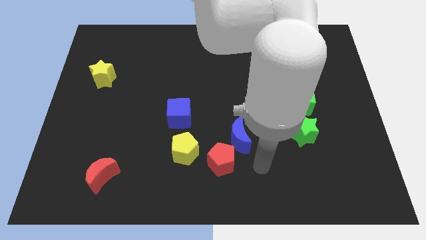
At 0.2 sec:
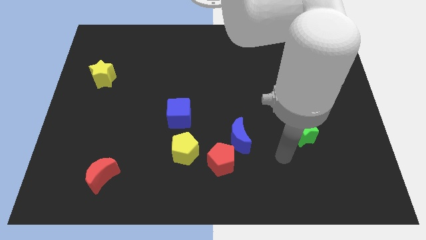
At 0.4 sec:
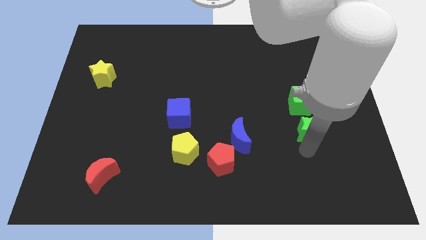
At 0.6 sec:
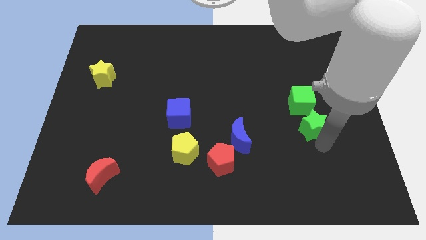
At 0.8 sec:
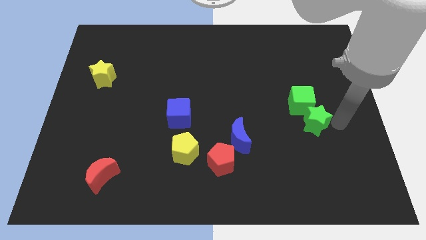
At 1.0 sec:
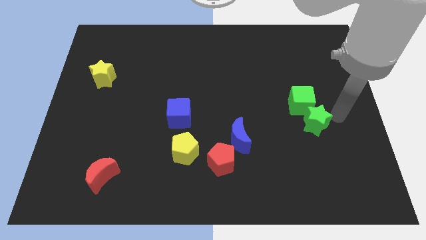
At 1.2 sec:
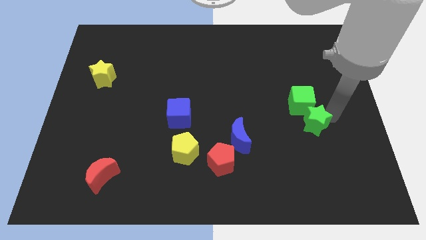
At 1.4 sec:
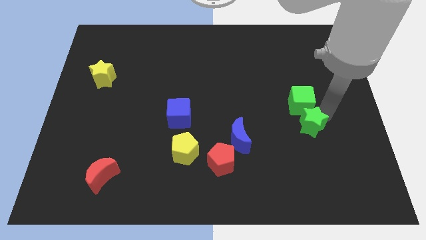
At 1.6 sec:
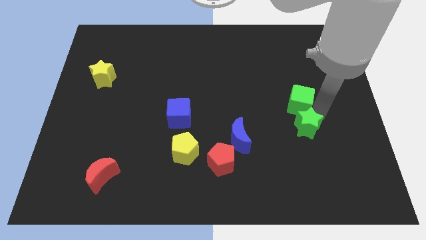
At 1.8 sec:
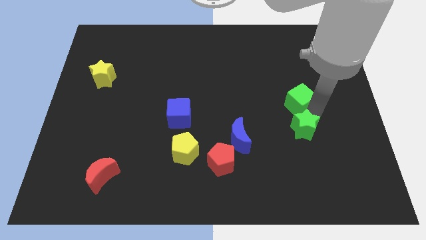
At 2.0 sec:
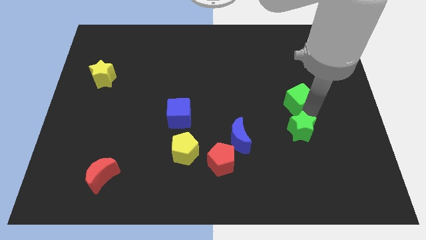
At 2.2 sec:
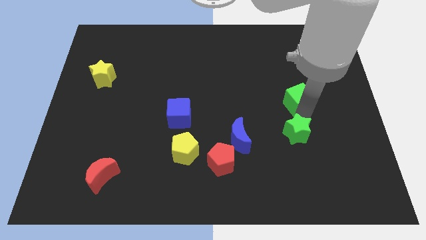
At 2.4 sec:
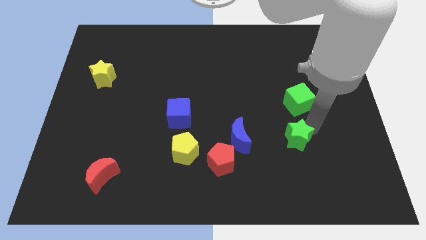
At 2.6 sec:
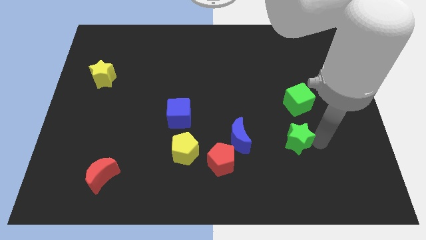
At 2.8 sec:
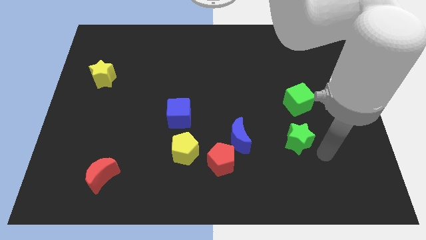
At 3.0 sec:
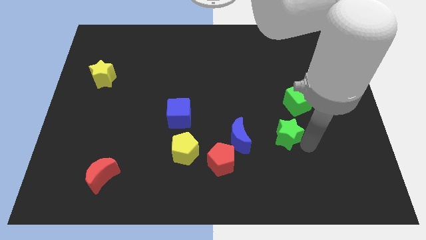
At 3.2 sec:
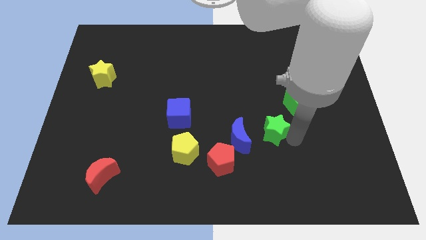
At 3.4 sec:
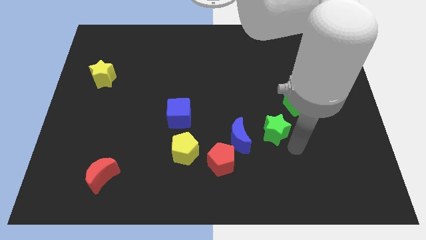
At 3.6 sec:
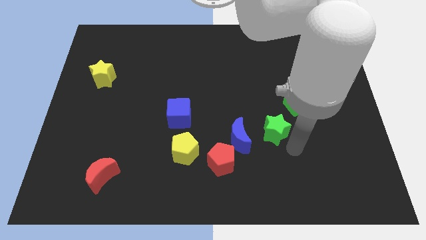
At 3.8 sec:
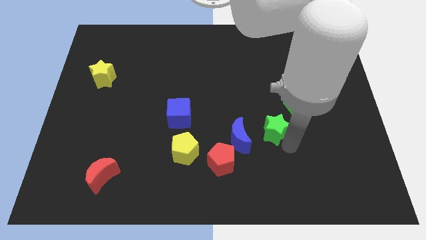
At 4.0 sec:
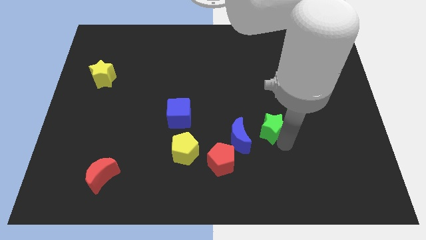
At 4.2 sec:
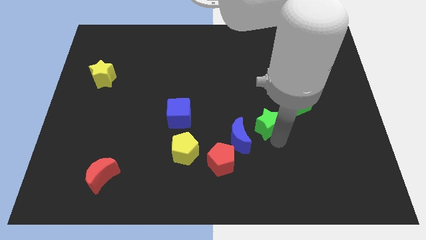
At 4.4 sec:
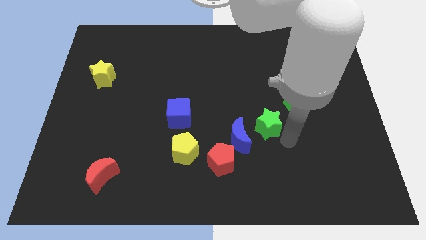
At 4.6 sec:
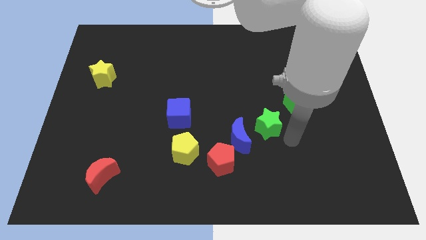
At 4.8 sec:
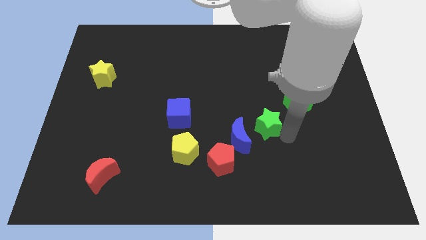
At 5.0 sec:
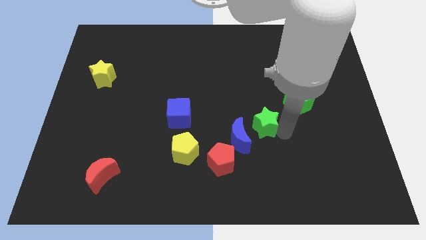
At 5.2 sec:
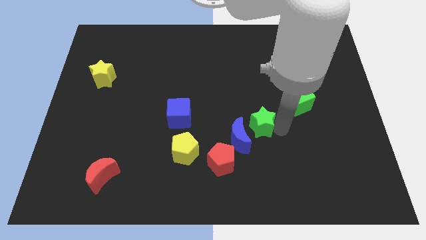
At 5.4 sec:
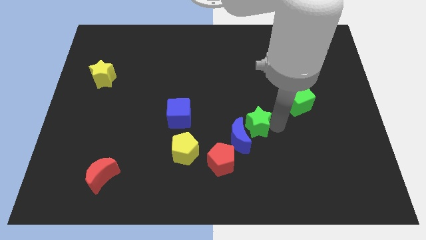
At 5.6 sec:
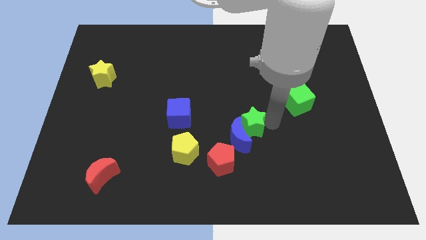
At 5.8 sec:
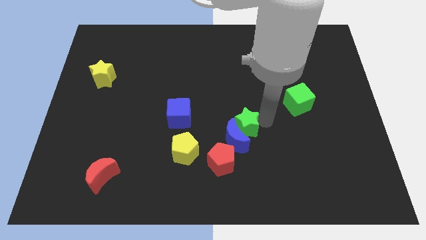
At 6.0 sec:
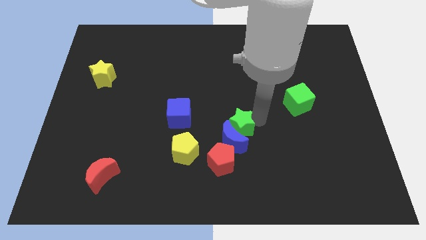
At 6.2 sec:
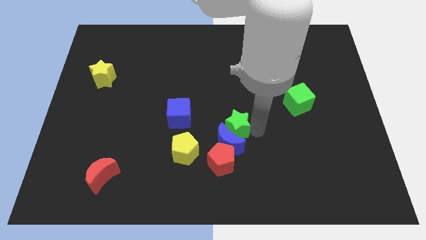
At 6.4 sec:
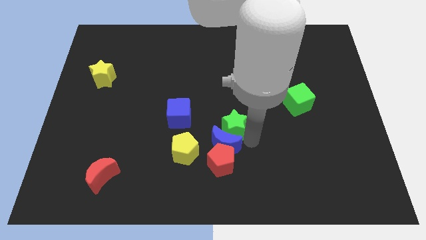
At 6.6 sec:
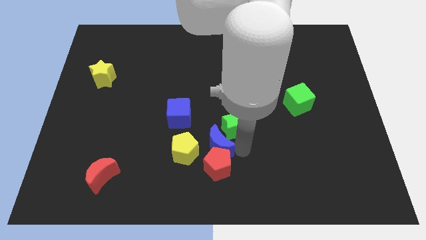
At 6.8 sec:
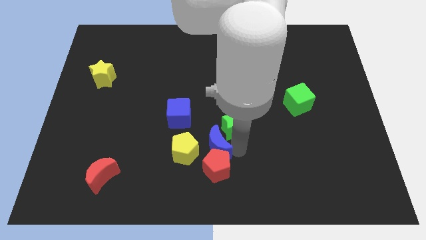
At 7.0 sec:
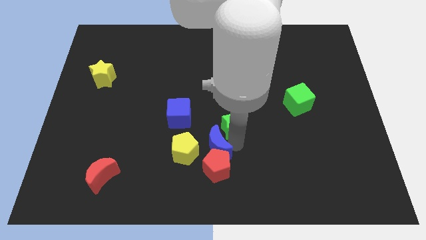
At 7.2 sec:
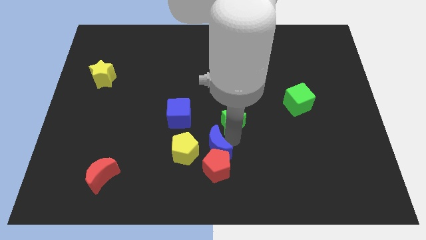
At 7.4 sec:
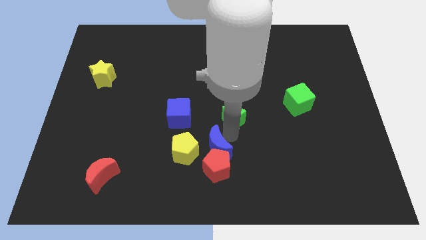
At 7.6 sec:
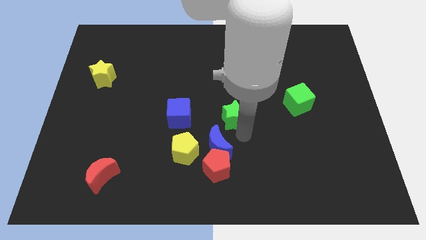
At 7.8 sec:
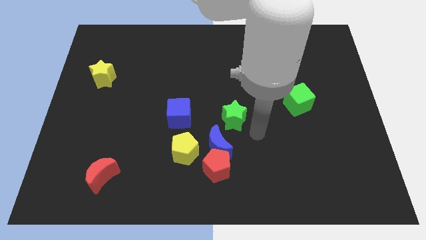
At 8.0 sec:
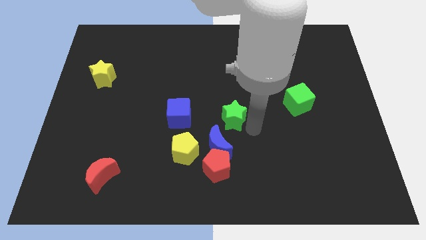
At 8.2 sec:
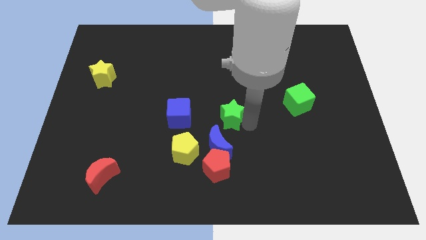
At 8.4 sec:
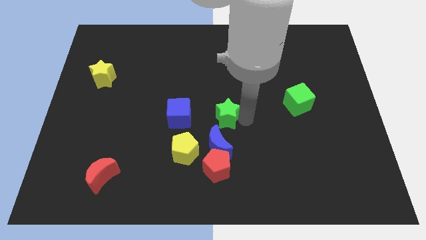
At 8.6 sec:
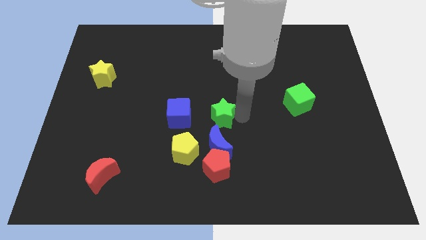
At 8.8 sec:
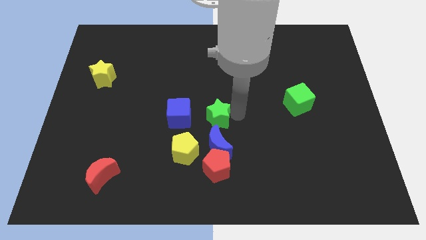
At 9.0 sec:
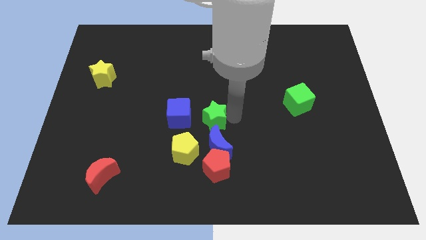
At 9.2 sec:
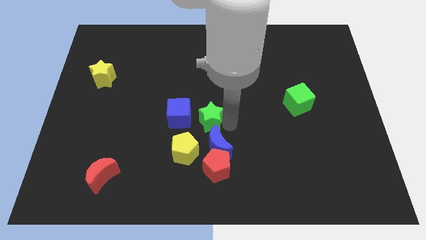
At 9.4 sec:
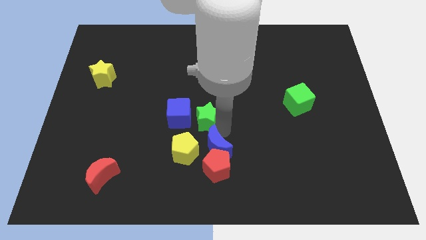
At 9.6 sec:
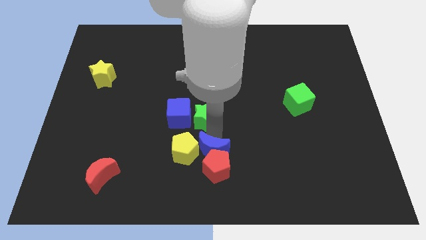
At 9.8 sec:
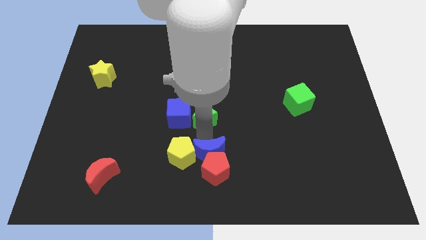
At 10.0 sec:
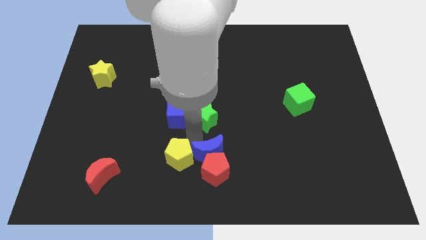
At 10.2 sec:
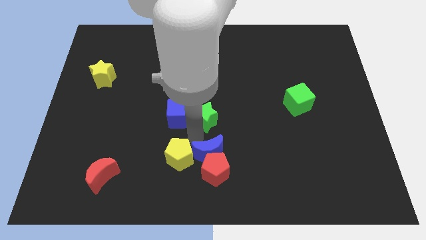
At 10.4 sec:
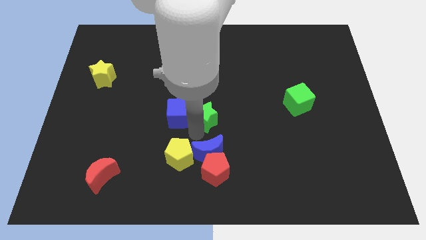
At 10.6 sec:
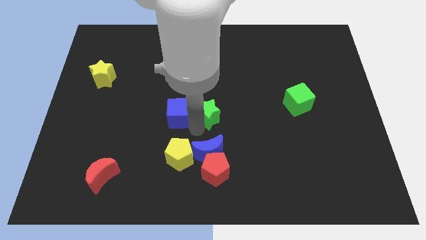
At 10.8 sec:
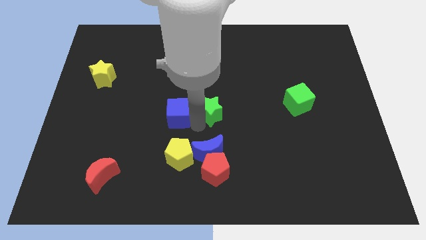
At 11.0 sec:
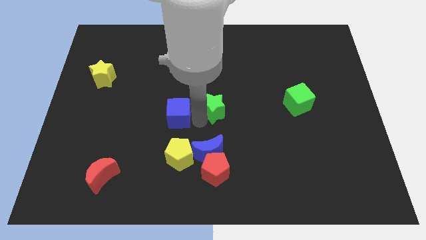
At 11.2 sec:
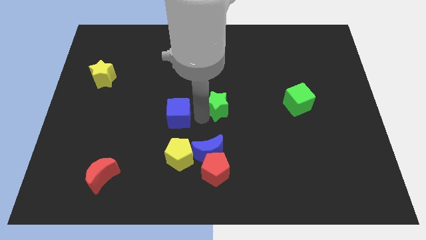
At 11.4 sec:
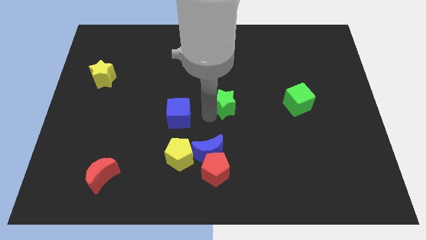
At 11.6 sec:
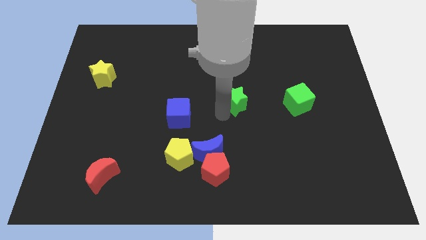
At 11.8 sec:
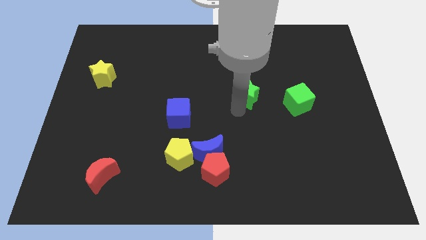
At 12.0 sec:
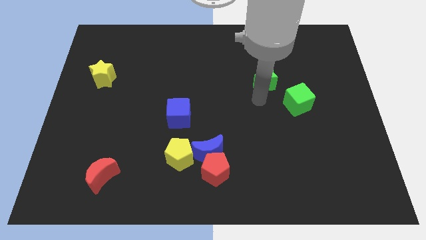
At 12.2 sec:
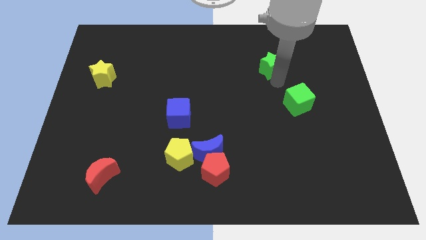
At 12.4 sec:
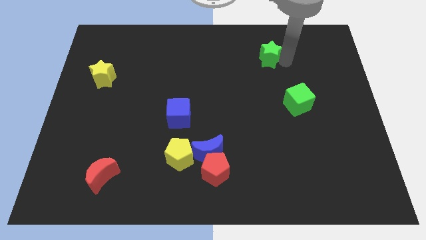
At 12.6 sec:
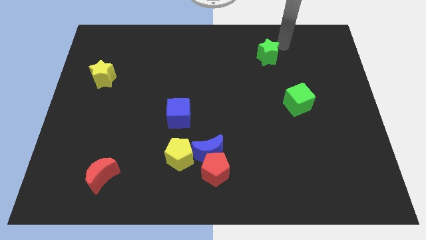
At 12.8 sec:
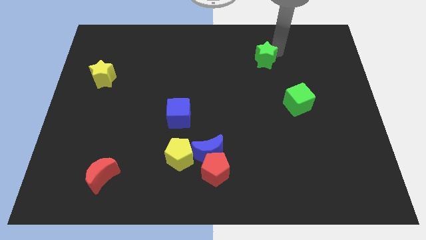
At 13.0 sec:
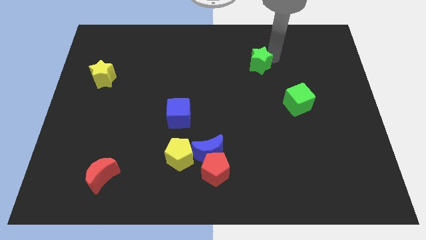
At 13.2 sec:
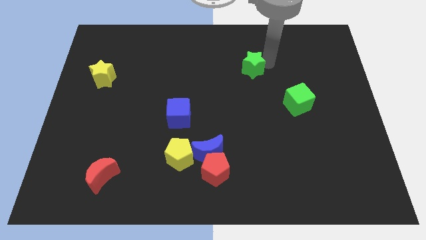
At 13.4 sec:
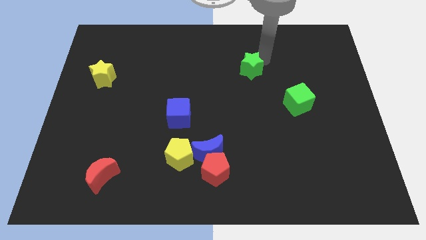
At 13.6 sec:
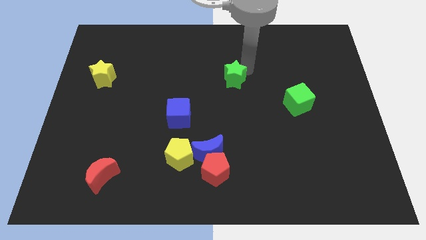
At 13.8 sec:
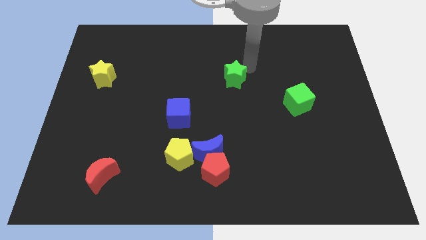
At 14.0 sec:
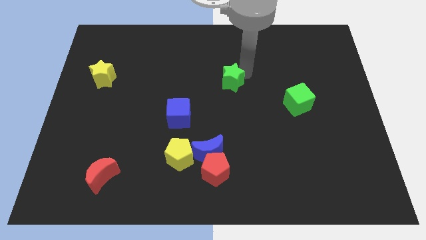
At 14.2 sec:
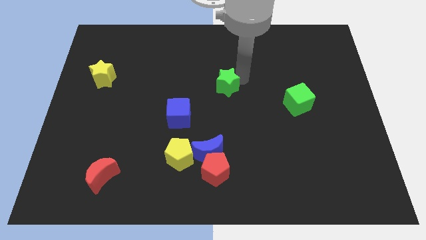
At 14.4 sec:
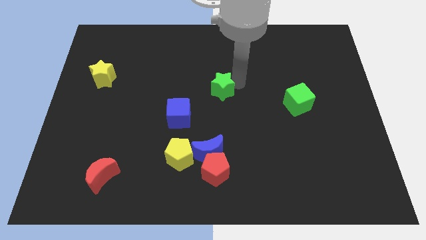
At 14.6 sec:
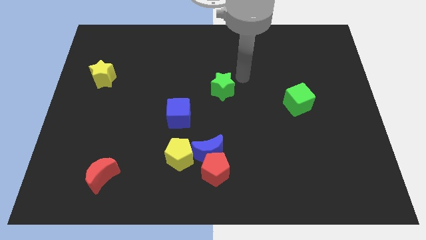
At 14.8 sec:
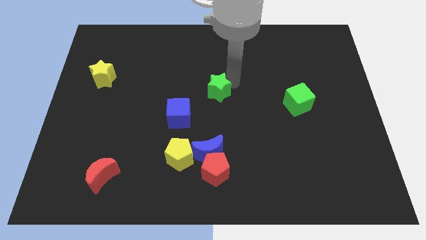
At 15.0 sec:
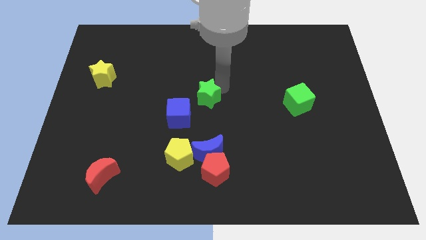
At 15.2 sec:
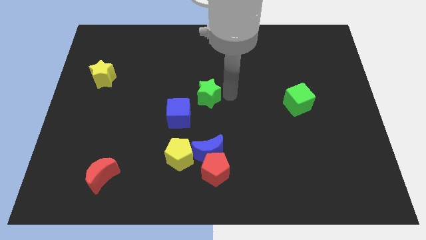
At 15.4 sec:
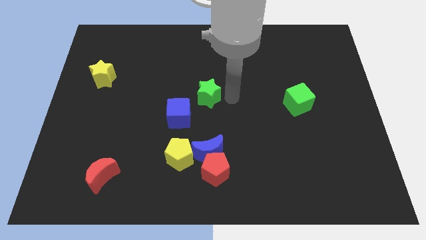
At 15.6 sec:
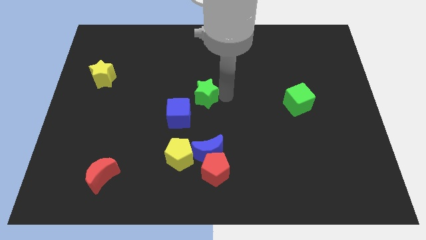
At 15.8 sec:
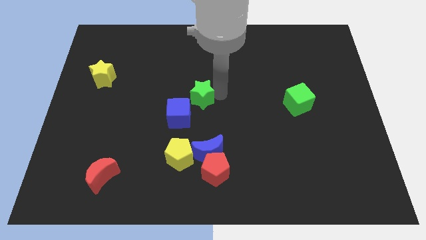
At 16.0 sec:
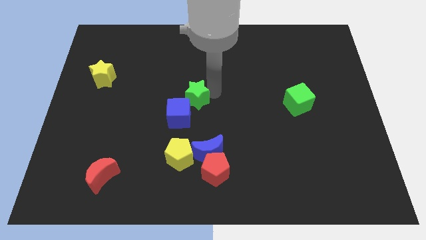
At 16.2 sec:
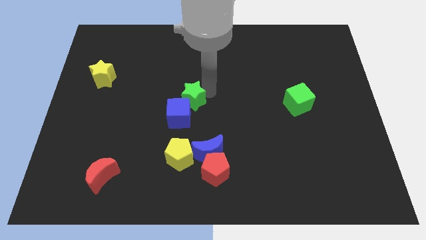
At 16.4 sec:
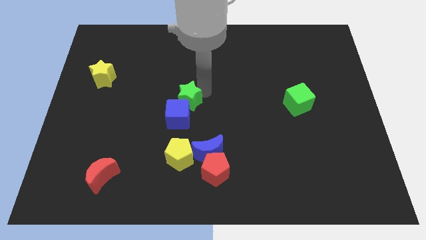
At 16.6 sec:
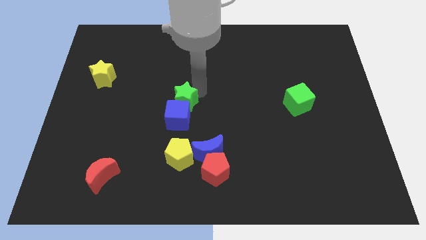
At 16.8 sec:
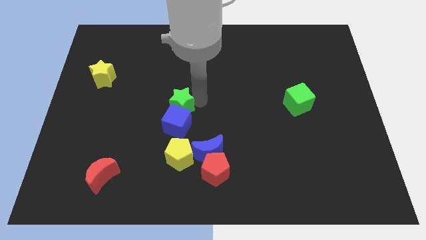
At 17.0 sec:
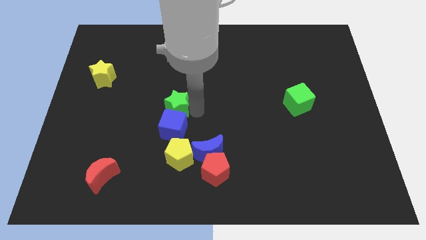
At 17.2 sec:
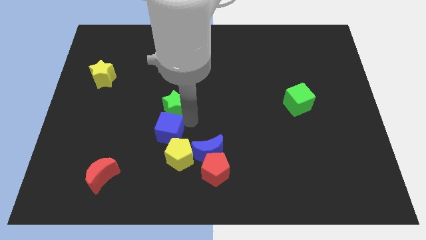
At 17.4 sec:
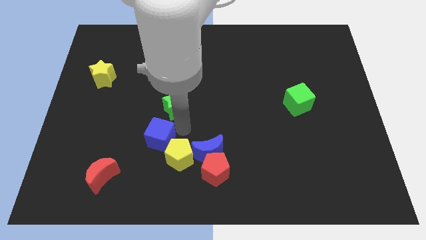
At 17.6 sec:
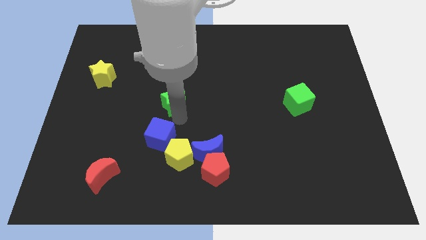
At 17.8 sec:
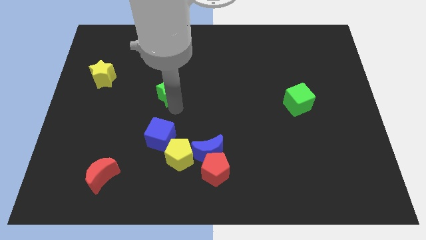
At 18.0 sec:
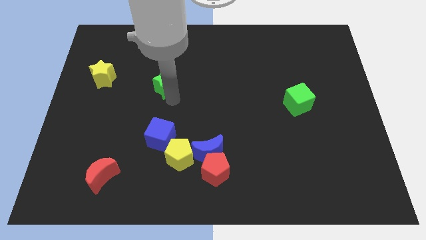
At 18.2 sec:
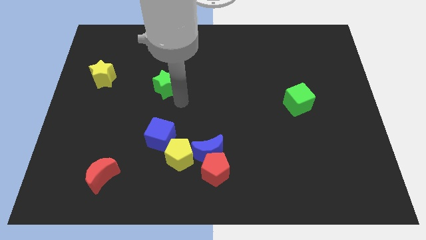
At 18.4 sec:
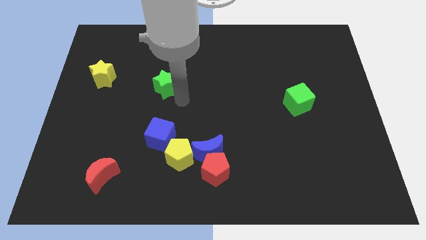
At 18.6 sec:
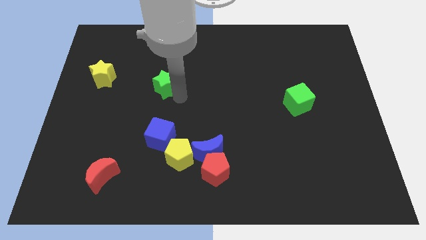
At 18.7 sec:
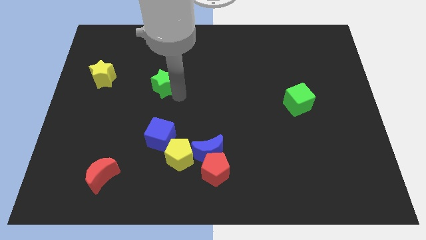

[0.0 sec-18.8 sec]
push the green star to the right of the yellow star
